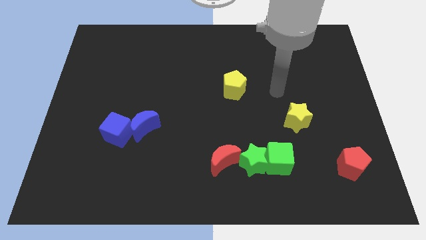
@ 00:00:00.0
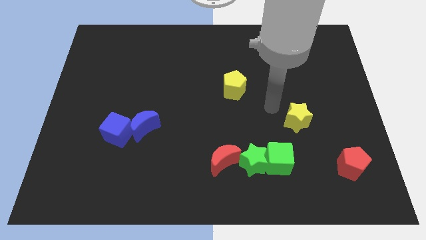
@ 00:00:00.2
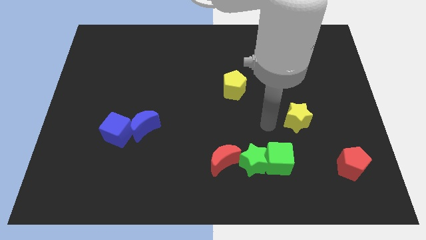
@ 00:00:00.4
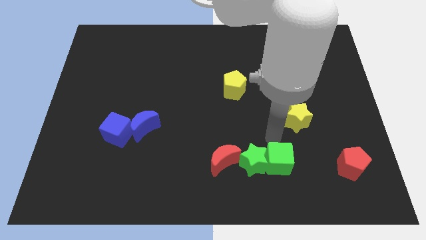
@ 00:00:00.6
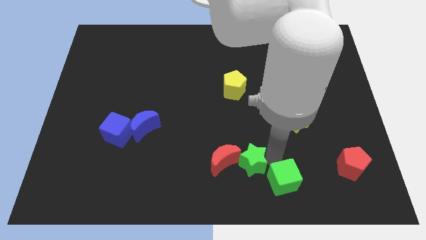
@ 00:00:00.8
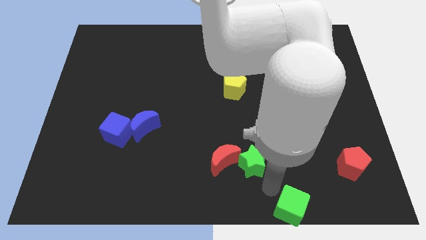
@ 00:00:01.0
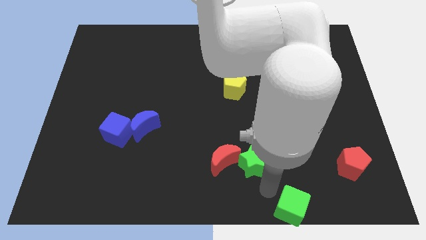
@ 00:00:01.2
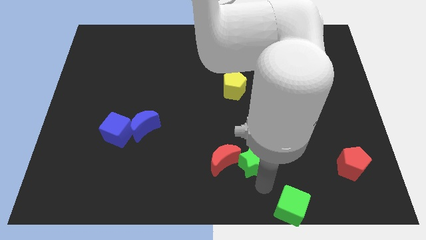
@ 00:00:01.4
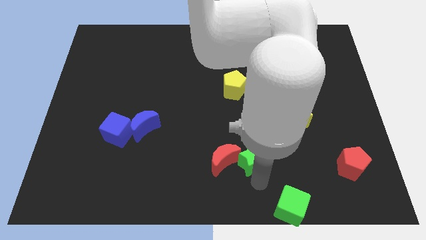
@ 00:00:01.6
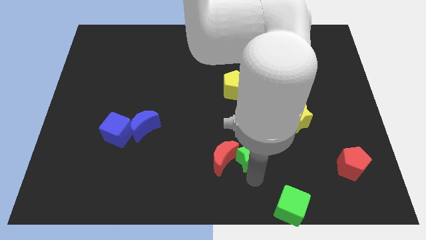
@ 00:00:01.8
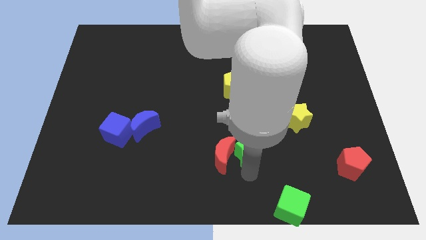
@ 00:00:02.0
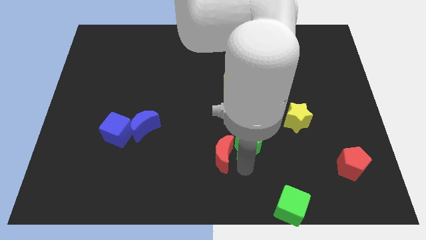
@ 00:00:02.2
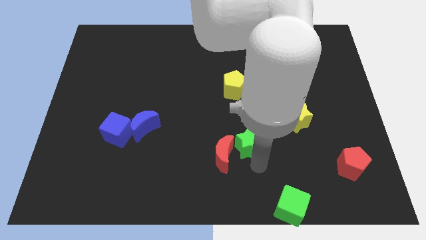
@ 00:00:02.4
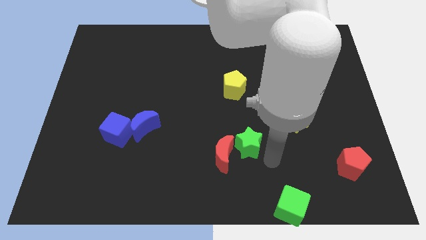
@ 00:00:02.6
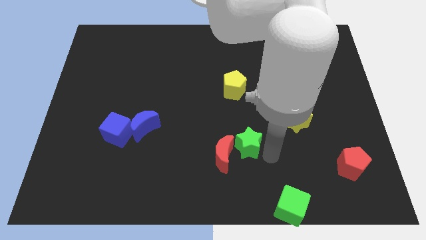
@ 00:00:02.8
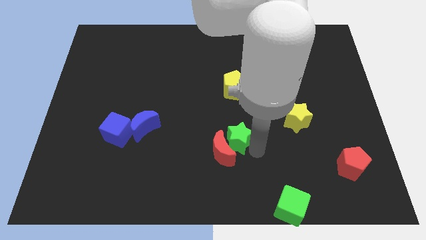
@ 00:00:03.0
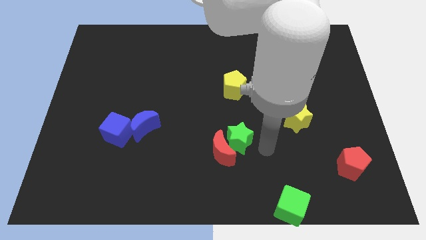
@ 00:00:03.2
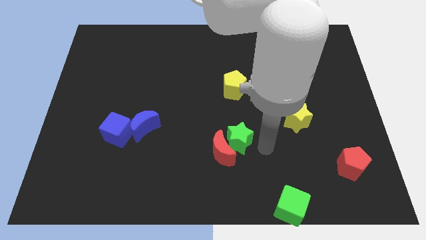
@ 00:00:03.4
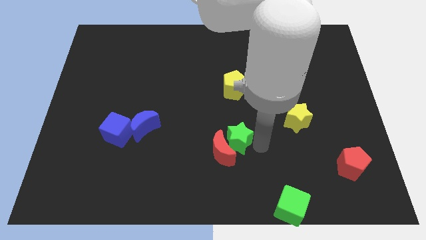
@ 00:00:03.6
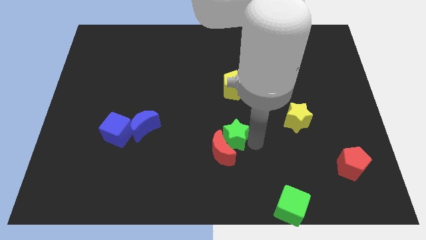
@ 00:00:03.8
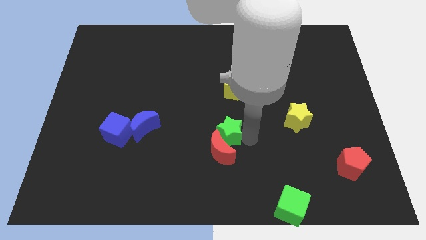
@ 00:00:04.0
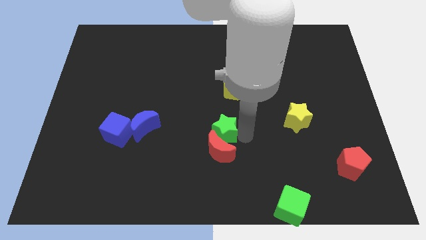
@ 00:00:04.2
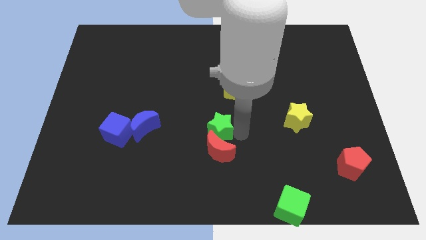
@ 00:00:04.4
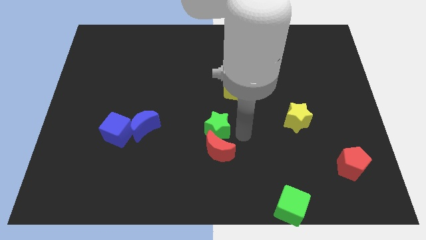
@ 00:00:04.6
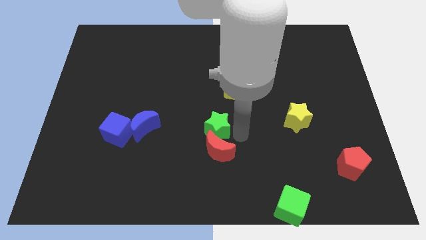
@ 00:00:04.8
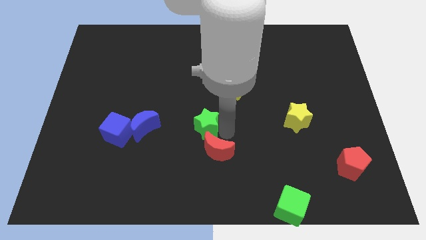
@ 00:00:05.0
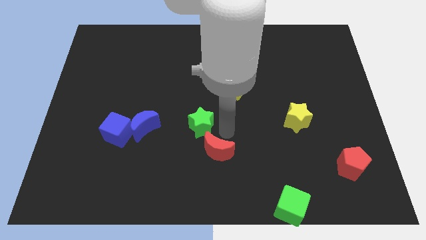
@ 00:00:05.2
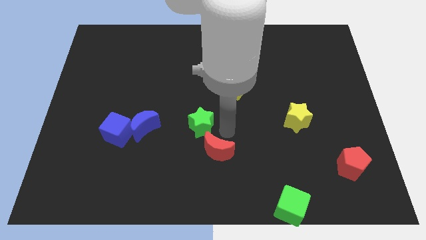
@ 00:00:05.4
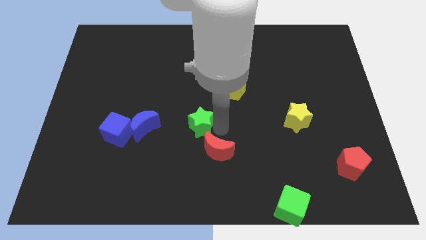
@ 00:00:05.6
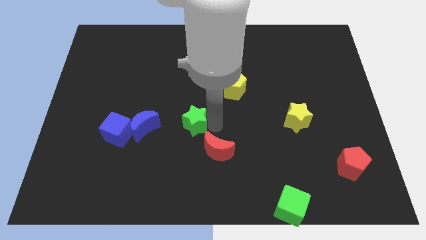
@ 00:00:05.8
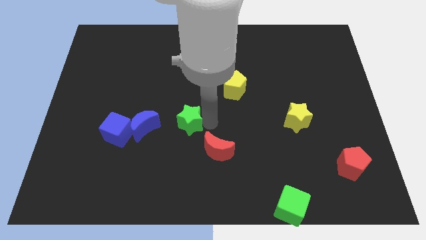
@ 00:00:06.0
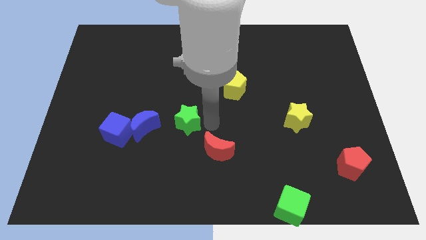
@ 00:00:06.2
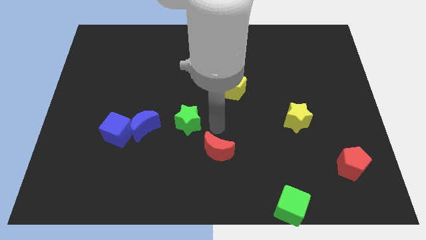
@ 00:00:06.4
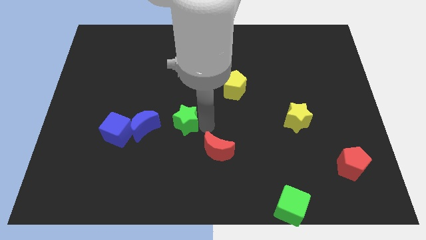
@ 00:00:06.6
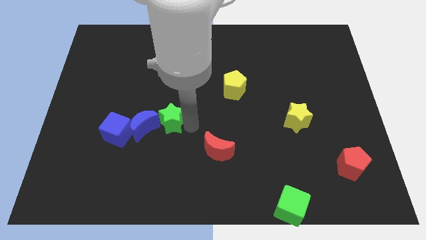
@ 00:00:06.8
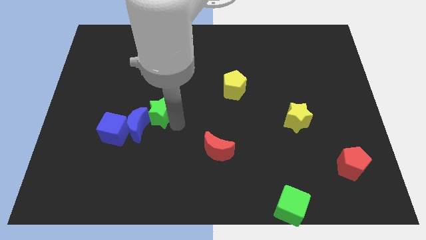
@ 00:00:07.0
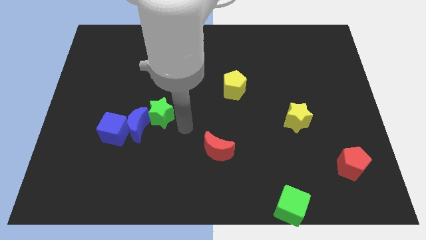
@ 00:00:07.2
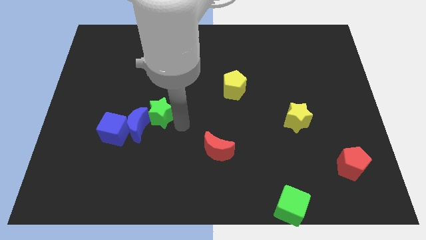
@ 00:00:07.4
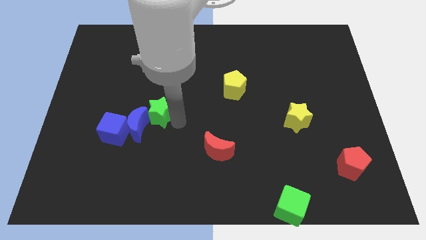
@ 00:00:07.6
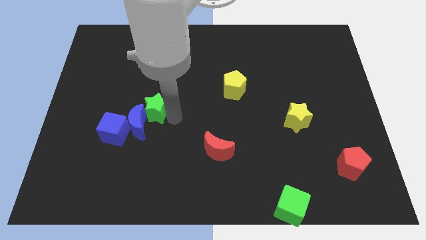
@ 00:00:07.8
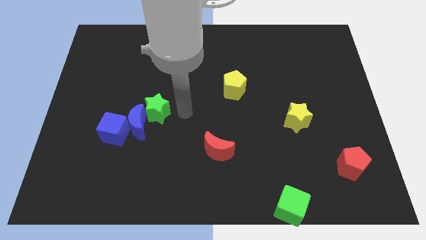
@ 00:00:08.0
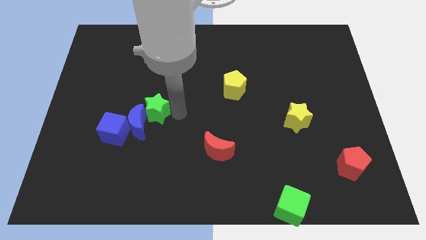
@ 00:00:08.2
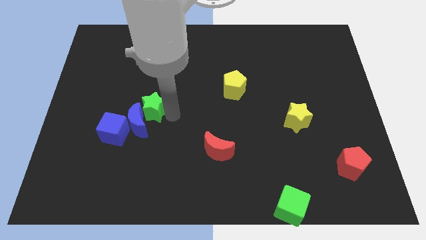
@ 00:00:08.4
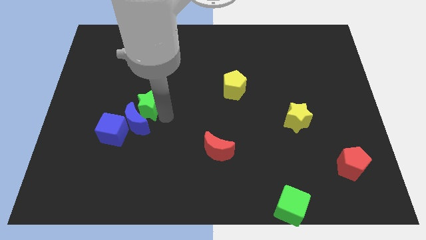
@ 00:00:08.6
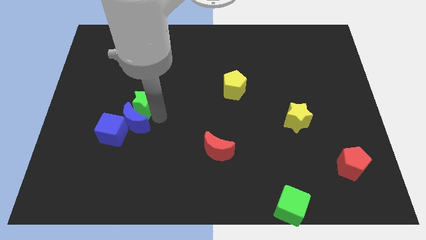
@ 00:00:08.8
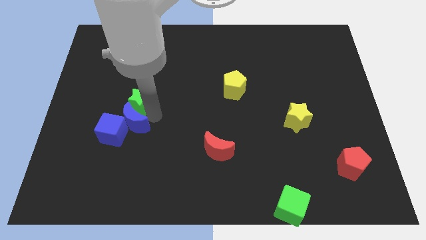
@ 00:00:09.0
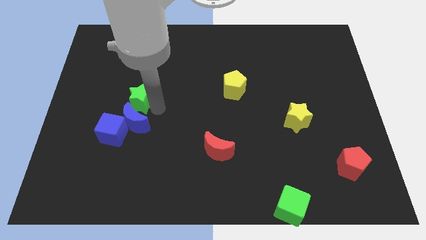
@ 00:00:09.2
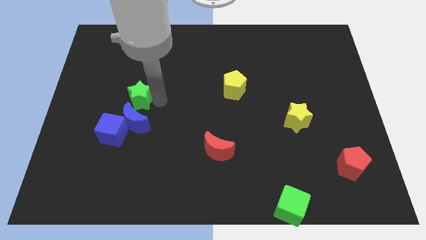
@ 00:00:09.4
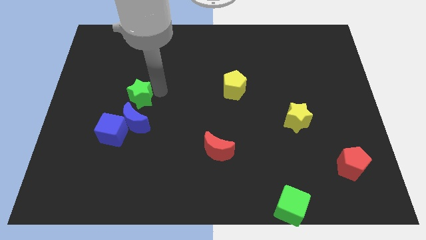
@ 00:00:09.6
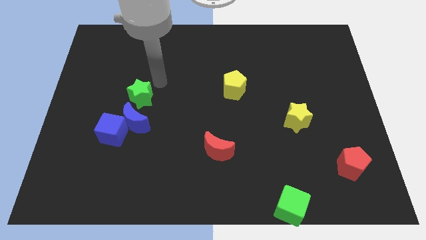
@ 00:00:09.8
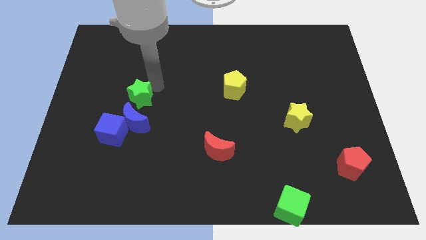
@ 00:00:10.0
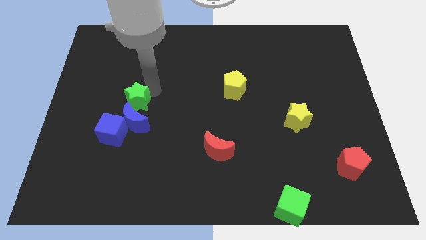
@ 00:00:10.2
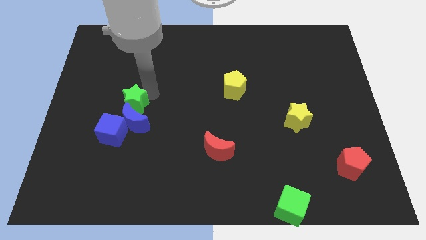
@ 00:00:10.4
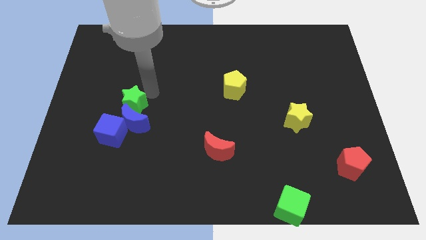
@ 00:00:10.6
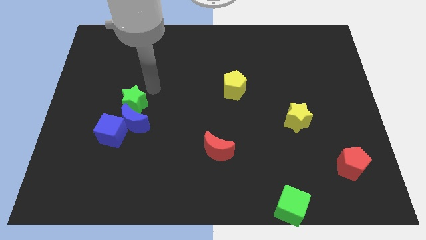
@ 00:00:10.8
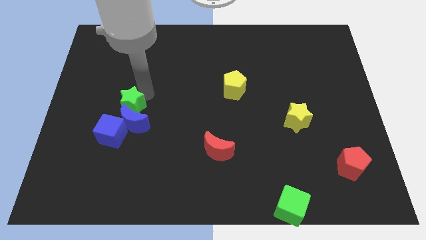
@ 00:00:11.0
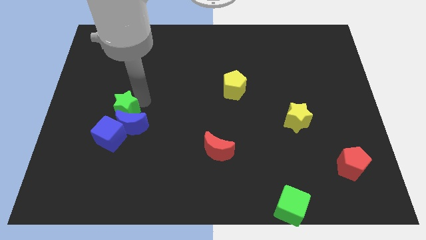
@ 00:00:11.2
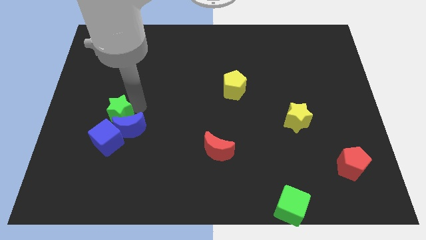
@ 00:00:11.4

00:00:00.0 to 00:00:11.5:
move the green star left of the blue moon

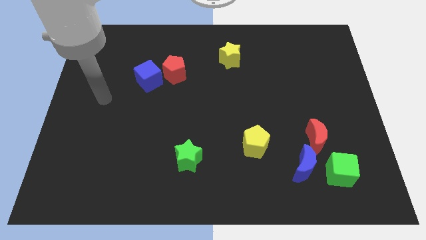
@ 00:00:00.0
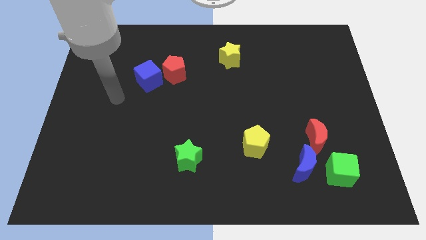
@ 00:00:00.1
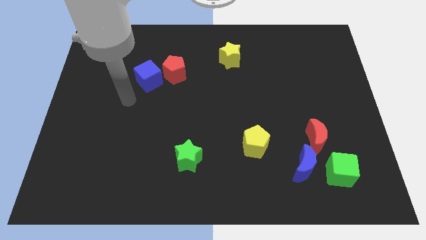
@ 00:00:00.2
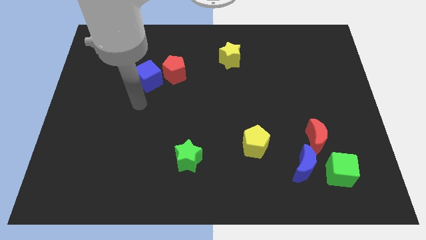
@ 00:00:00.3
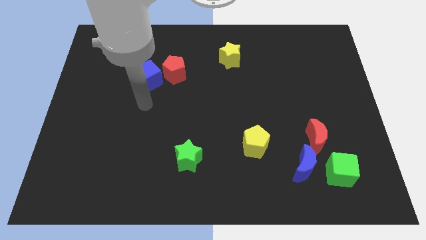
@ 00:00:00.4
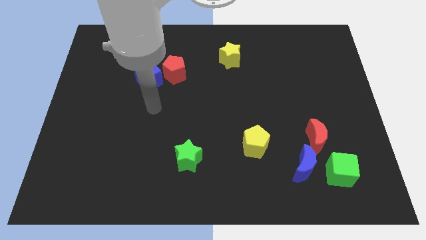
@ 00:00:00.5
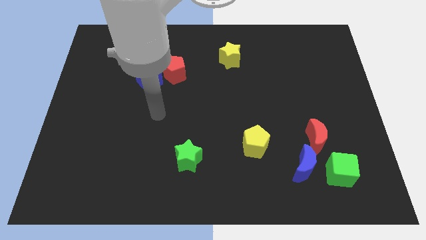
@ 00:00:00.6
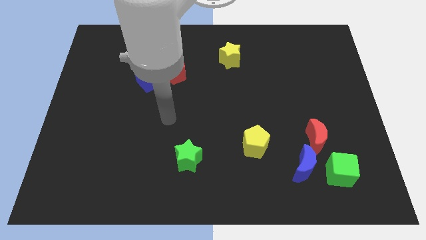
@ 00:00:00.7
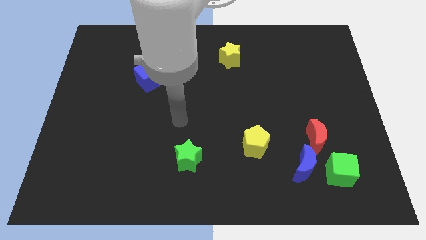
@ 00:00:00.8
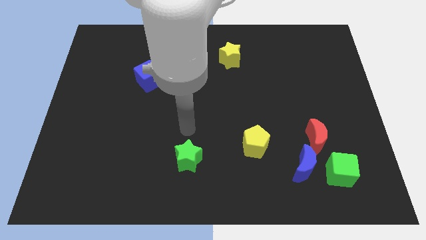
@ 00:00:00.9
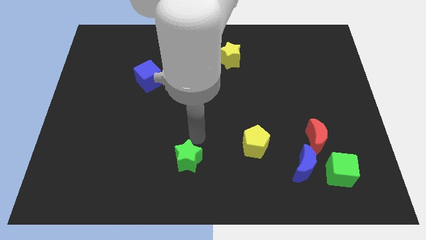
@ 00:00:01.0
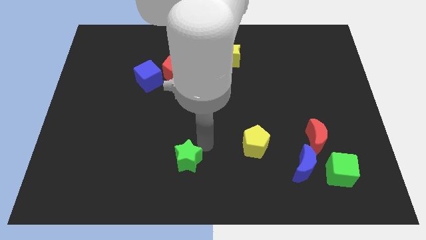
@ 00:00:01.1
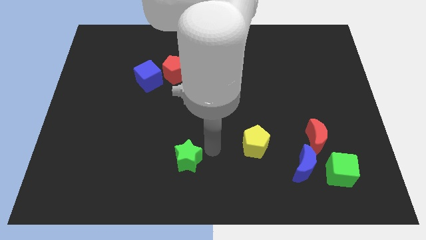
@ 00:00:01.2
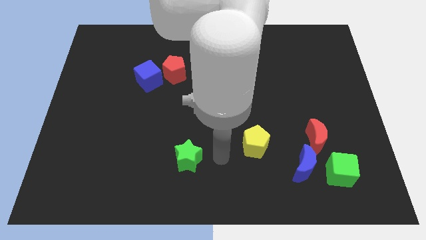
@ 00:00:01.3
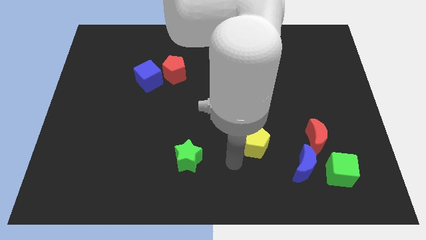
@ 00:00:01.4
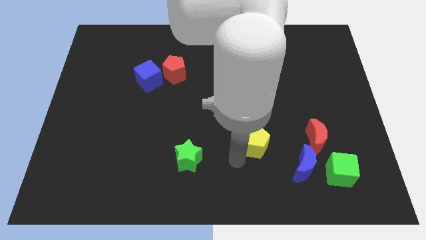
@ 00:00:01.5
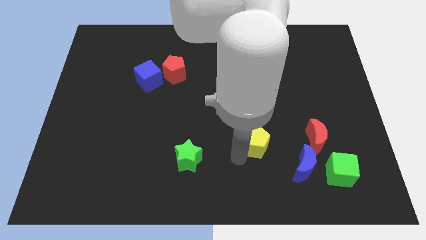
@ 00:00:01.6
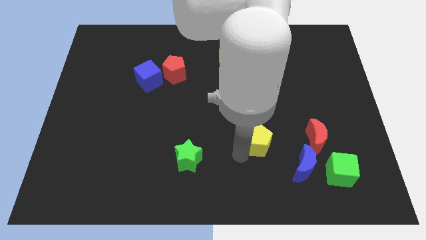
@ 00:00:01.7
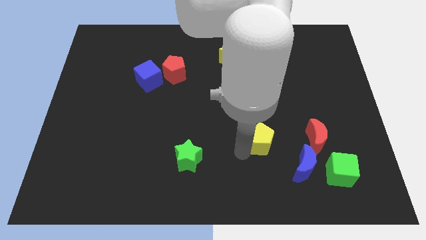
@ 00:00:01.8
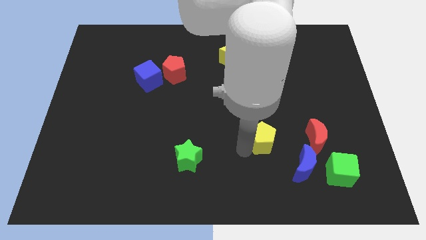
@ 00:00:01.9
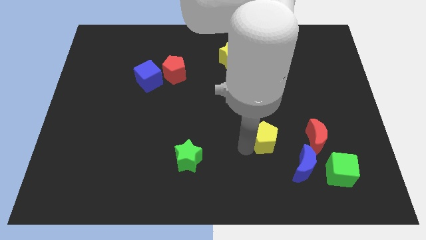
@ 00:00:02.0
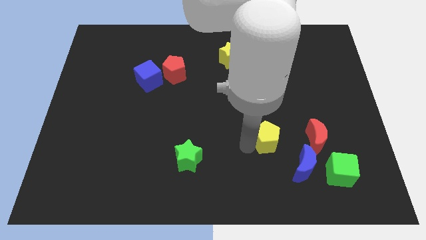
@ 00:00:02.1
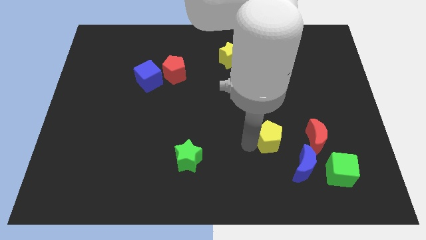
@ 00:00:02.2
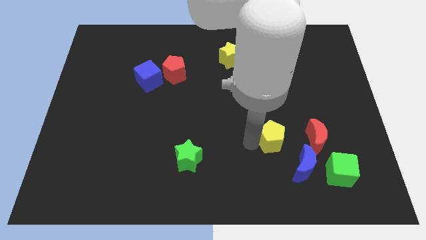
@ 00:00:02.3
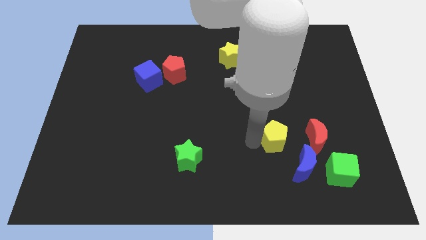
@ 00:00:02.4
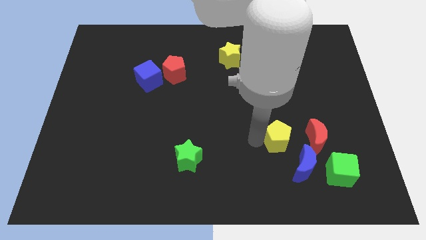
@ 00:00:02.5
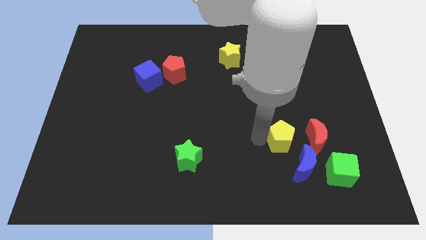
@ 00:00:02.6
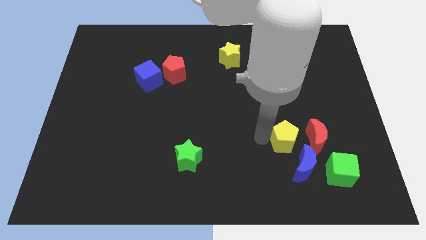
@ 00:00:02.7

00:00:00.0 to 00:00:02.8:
move the yellow pentagon to the top left of the red moon
